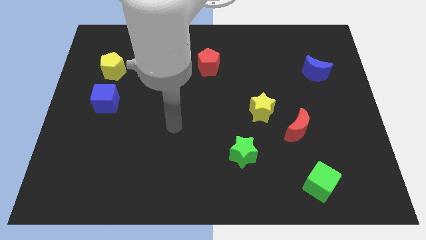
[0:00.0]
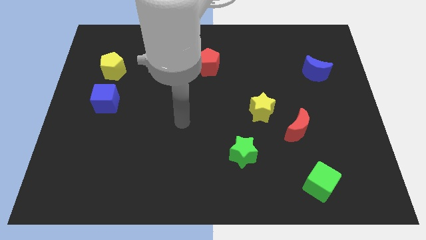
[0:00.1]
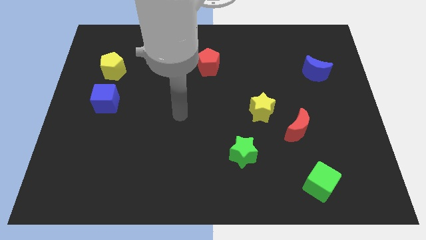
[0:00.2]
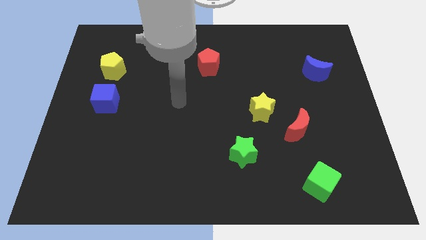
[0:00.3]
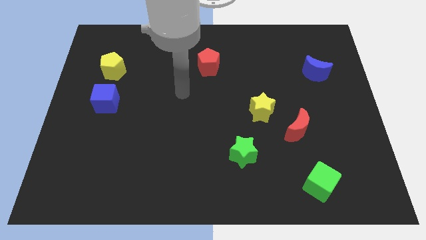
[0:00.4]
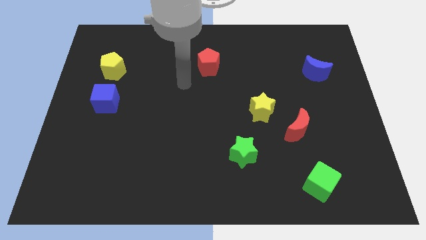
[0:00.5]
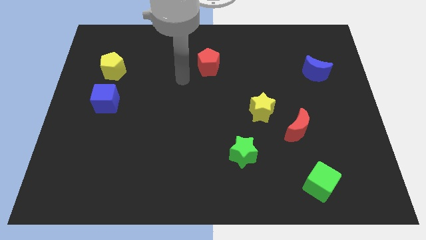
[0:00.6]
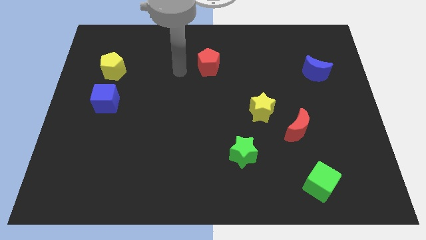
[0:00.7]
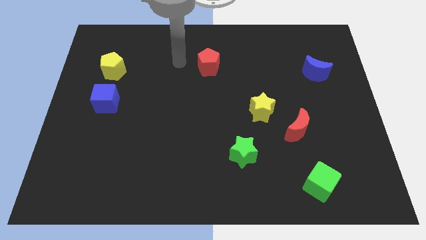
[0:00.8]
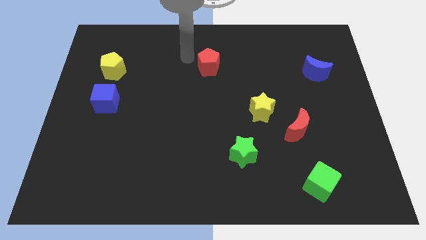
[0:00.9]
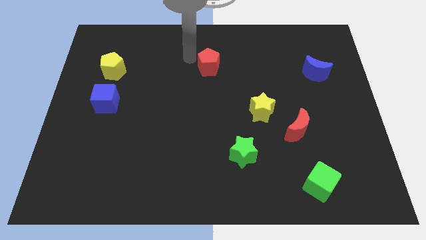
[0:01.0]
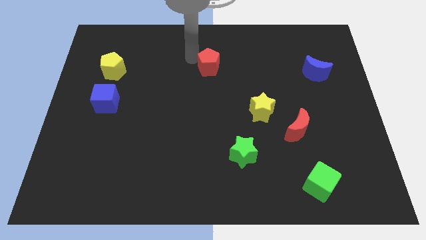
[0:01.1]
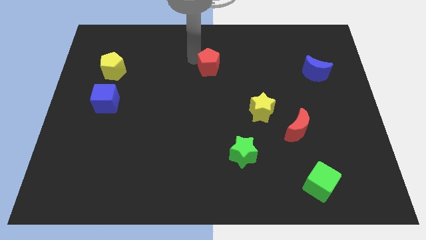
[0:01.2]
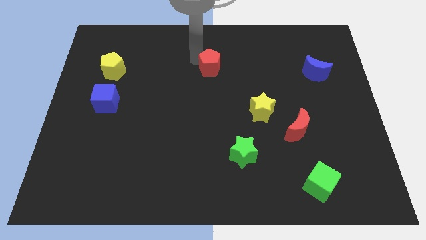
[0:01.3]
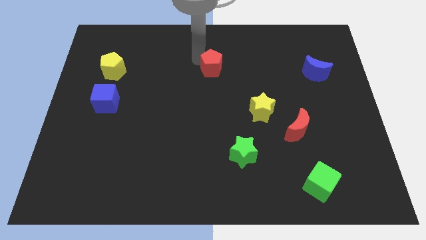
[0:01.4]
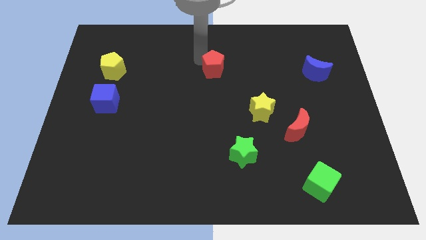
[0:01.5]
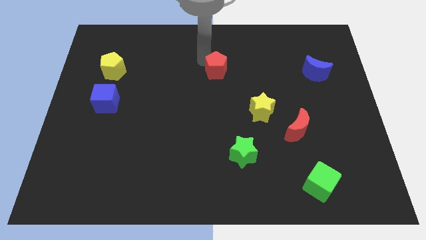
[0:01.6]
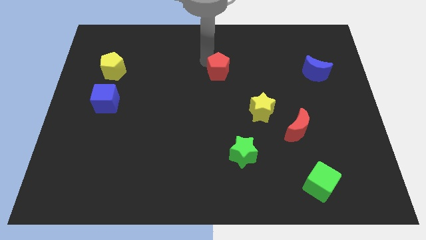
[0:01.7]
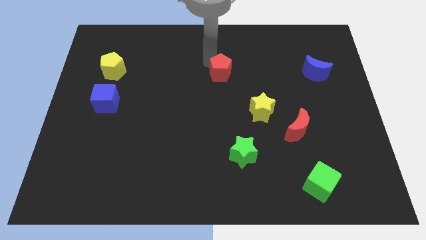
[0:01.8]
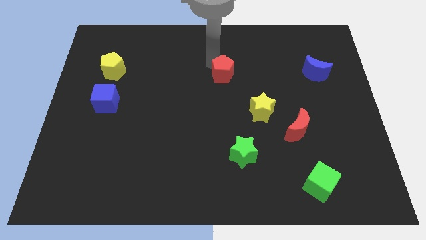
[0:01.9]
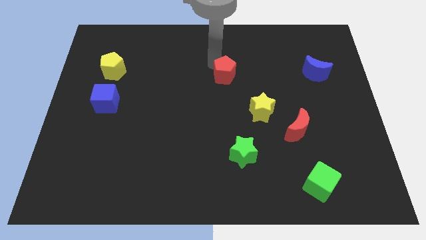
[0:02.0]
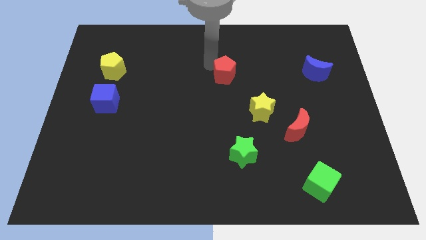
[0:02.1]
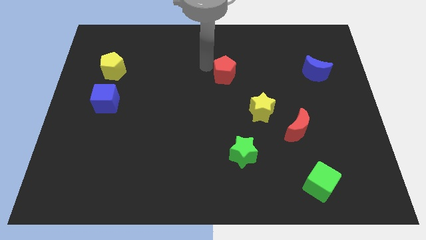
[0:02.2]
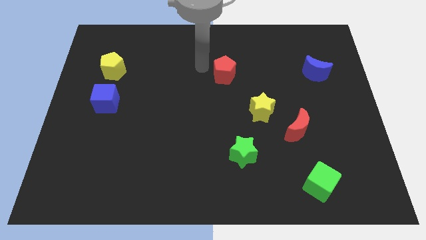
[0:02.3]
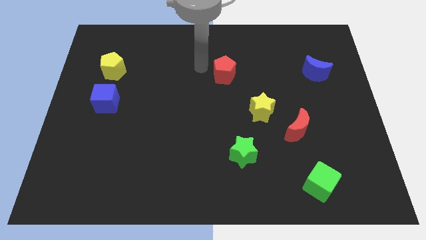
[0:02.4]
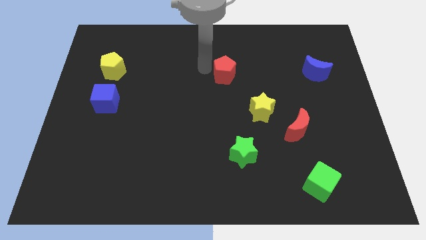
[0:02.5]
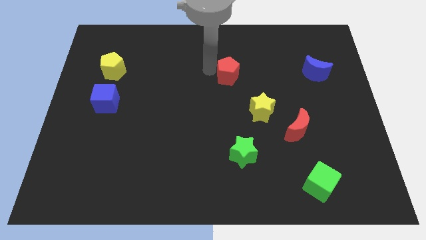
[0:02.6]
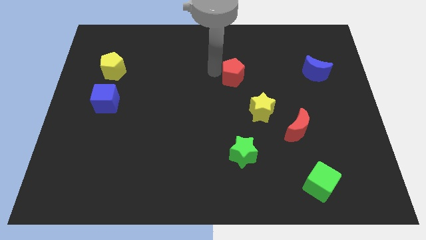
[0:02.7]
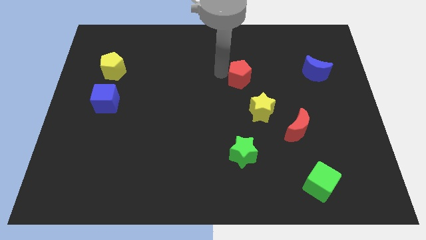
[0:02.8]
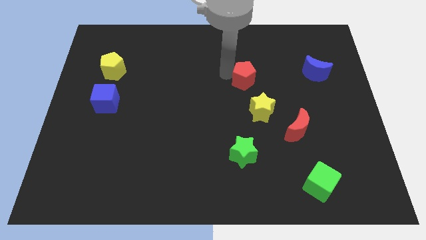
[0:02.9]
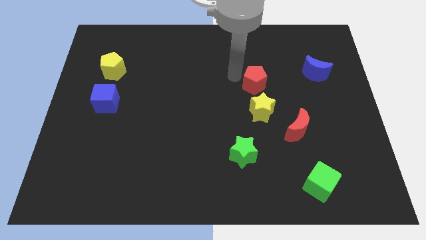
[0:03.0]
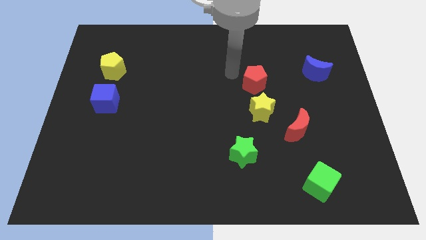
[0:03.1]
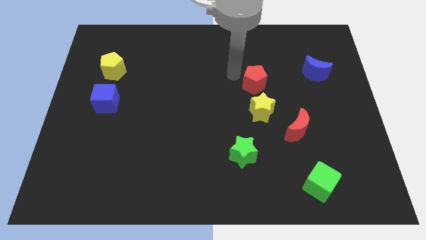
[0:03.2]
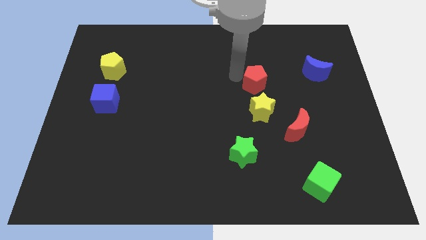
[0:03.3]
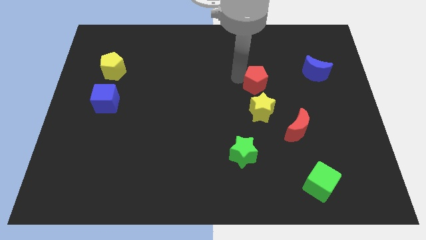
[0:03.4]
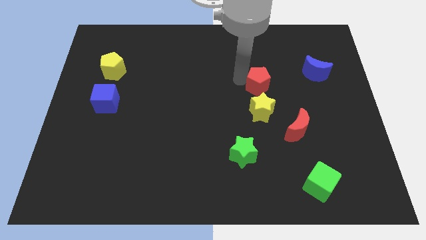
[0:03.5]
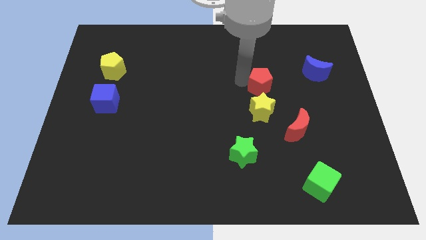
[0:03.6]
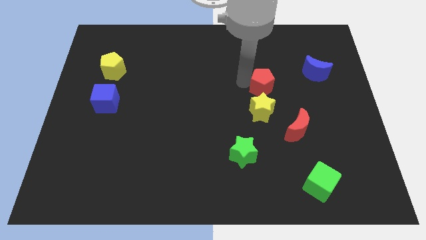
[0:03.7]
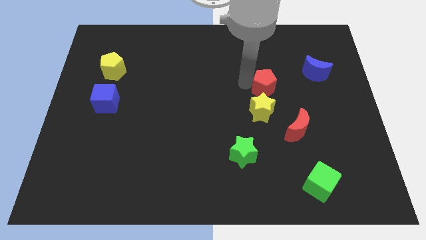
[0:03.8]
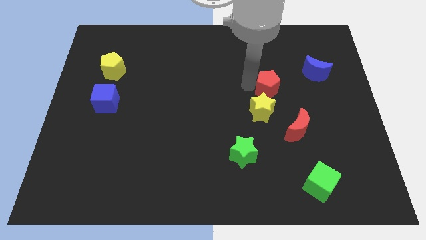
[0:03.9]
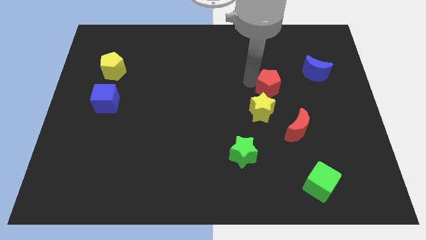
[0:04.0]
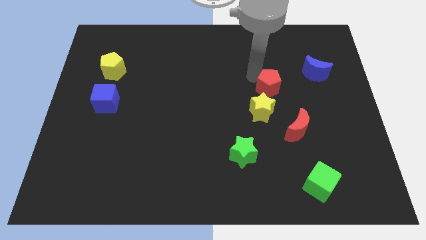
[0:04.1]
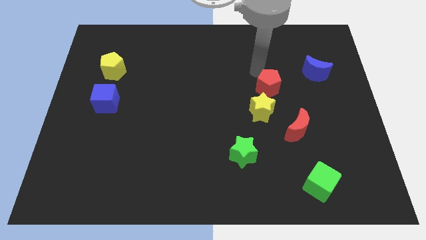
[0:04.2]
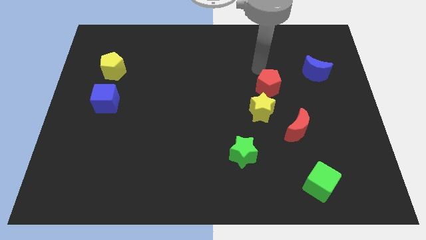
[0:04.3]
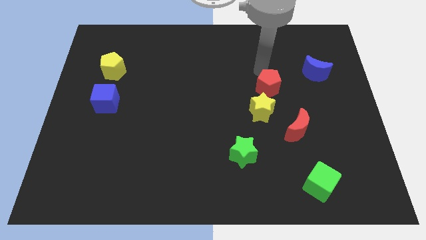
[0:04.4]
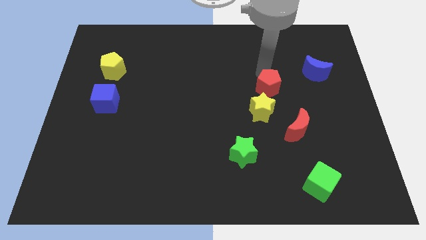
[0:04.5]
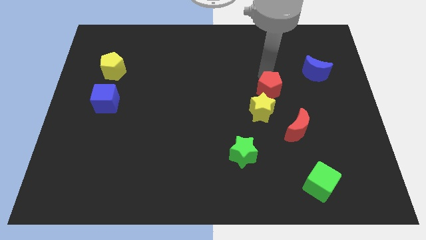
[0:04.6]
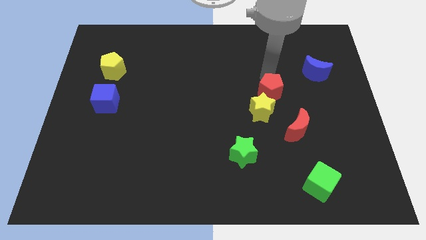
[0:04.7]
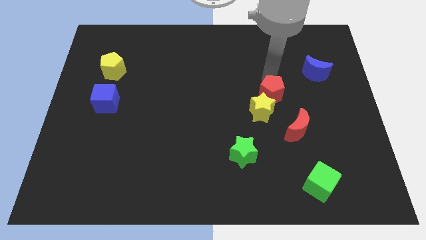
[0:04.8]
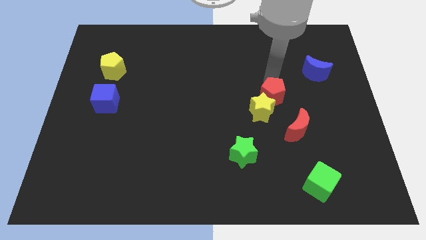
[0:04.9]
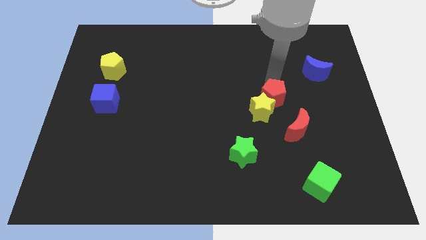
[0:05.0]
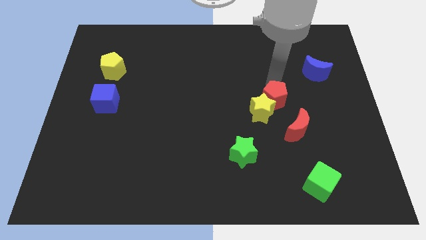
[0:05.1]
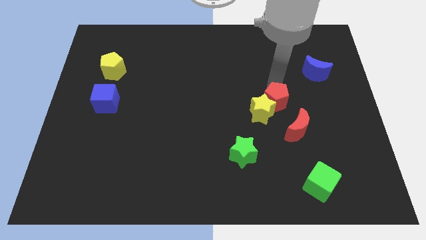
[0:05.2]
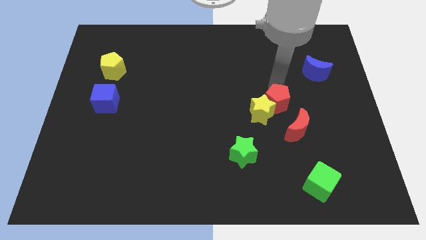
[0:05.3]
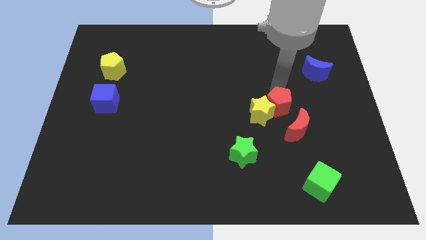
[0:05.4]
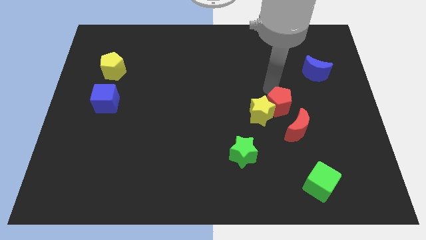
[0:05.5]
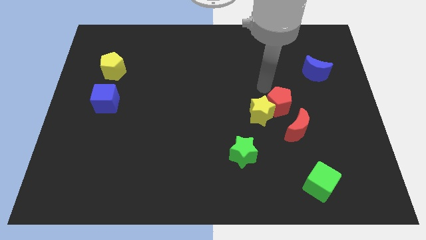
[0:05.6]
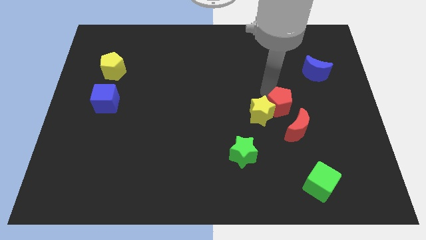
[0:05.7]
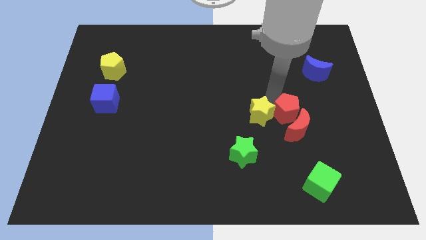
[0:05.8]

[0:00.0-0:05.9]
slide the red pentagon to the red moon

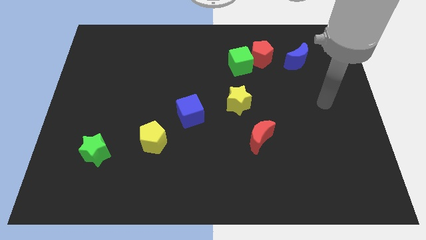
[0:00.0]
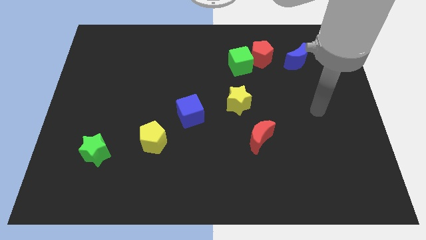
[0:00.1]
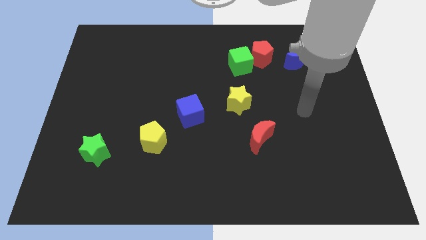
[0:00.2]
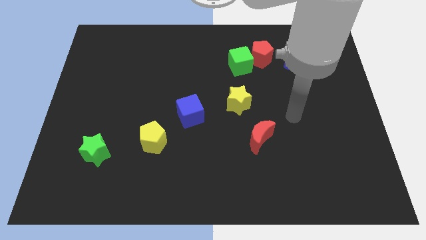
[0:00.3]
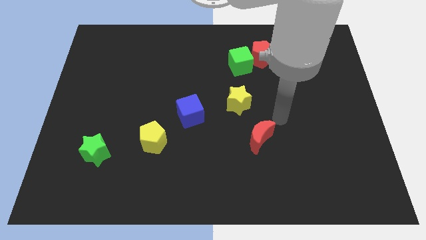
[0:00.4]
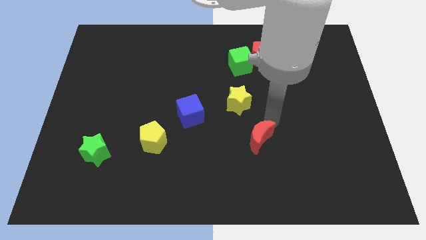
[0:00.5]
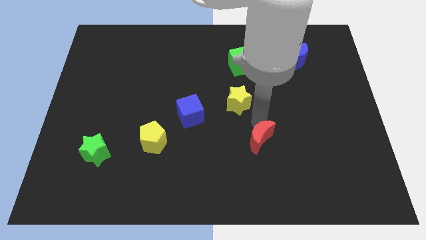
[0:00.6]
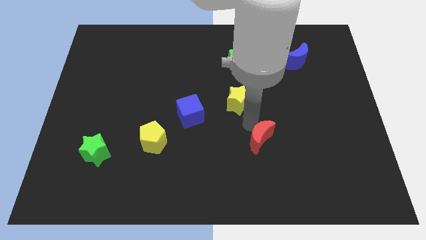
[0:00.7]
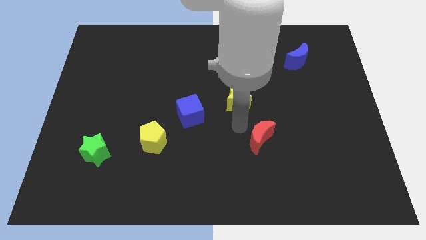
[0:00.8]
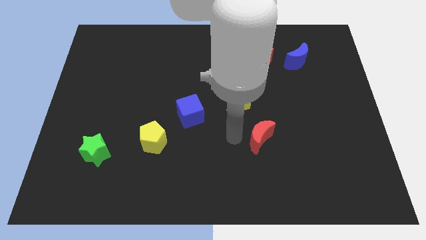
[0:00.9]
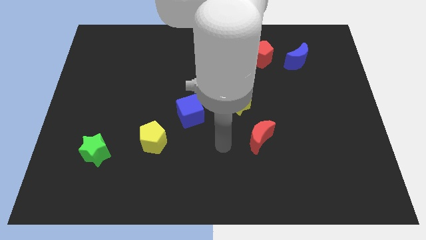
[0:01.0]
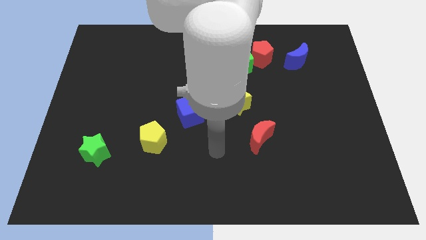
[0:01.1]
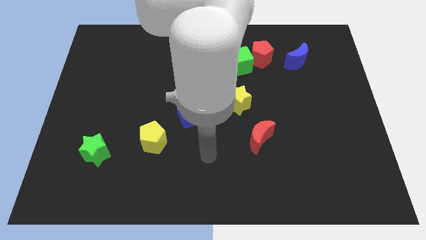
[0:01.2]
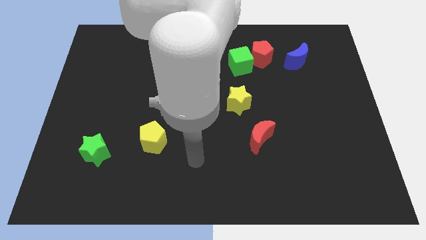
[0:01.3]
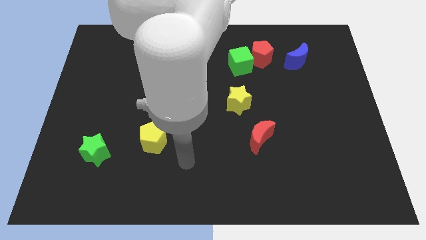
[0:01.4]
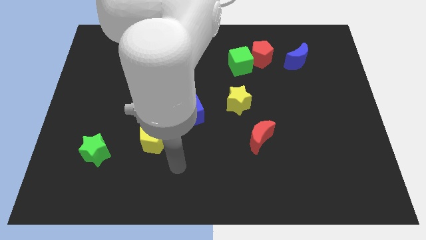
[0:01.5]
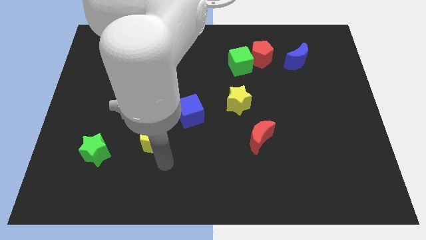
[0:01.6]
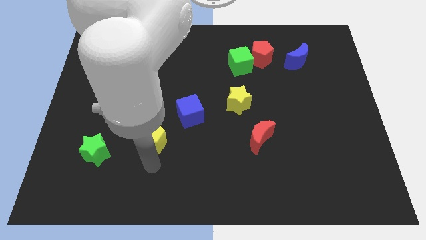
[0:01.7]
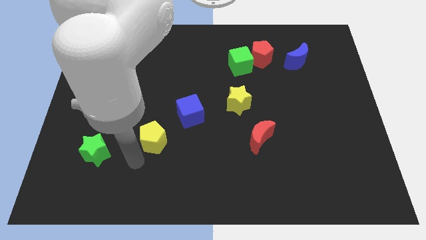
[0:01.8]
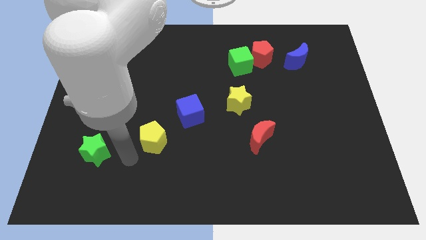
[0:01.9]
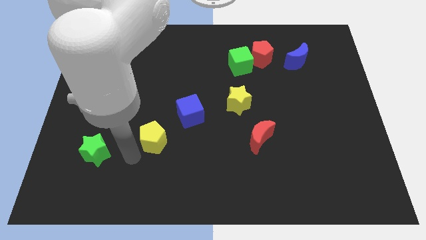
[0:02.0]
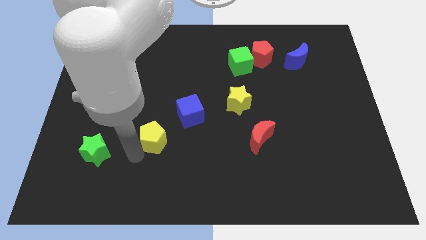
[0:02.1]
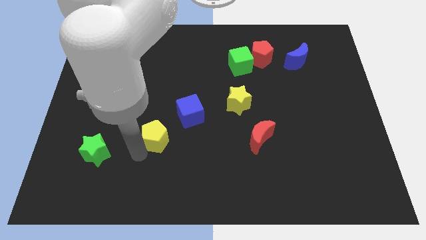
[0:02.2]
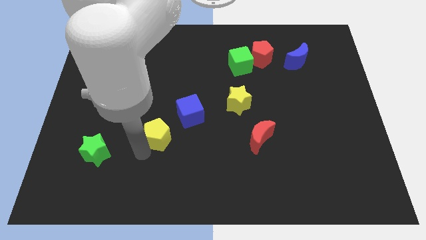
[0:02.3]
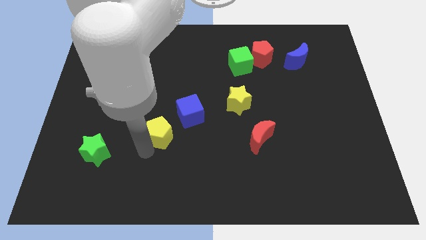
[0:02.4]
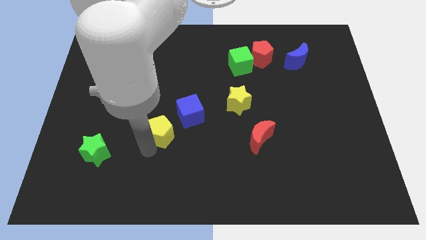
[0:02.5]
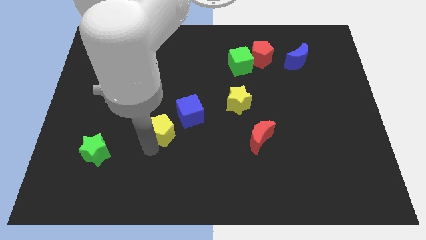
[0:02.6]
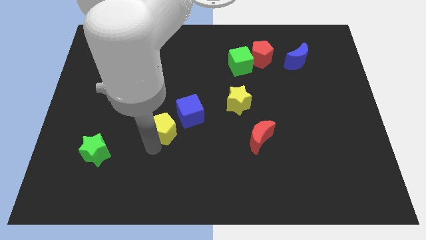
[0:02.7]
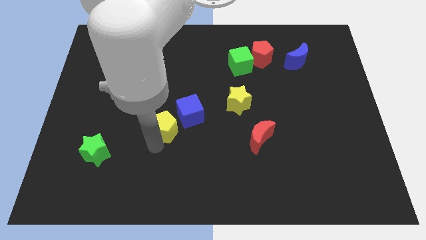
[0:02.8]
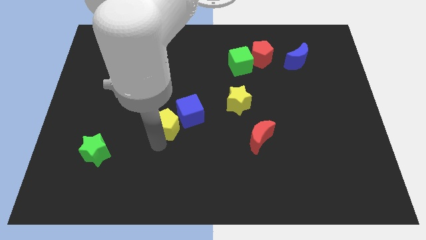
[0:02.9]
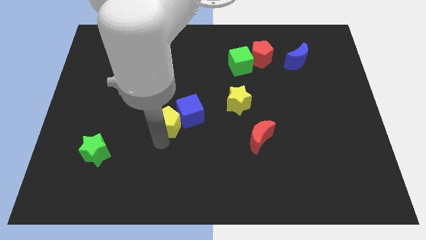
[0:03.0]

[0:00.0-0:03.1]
put the yellow pentagon towards the blue cube
